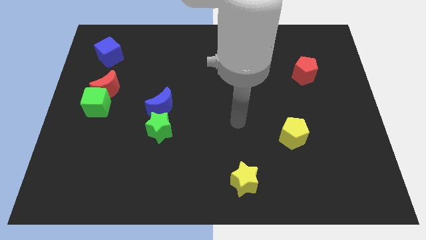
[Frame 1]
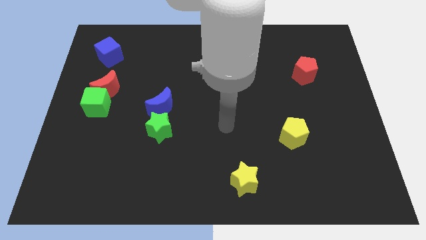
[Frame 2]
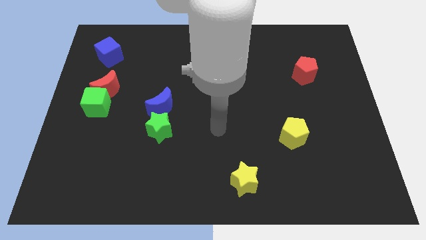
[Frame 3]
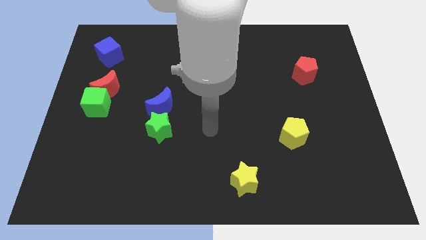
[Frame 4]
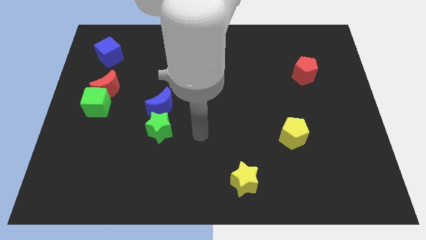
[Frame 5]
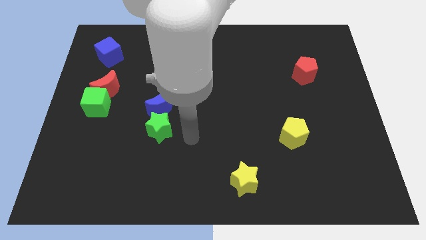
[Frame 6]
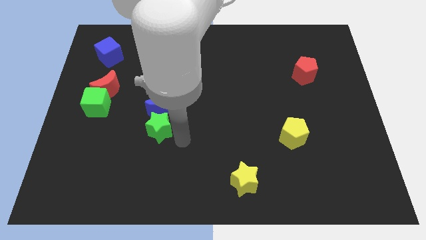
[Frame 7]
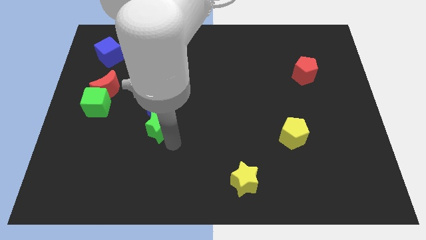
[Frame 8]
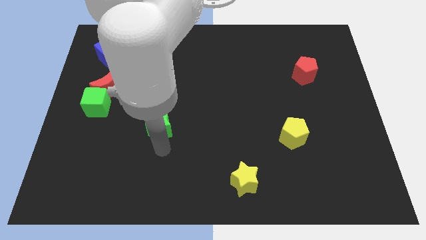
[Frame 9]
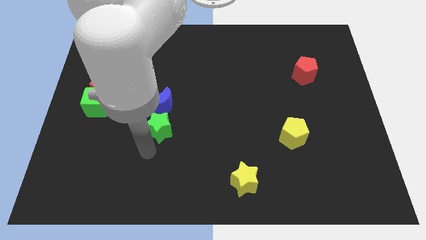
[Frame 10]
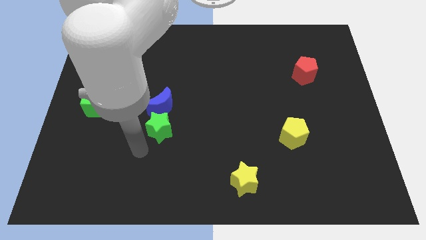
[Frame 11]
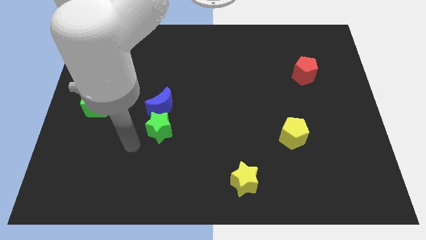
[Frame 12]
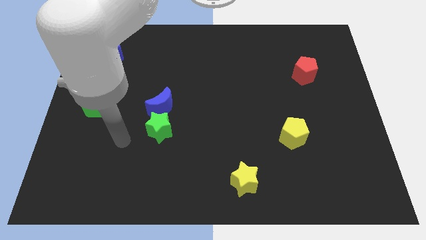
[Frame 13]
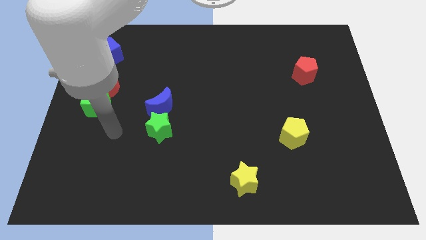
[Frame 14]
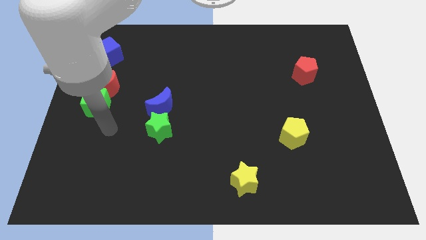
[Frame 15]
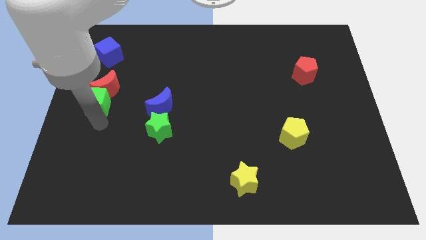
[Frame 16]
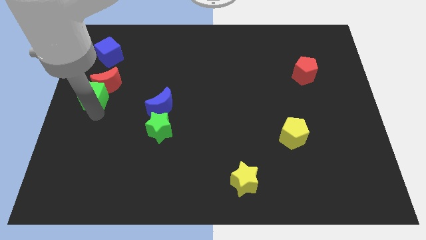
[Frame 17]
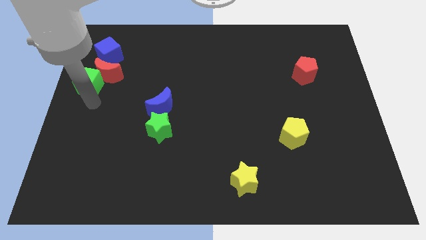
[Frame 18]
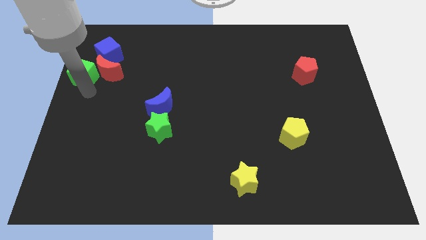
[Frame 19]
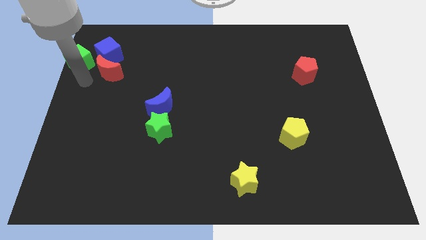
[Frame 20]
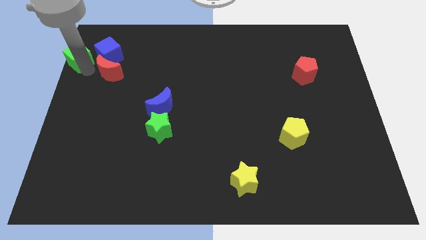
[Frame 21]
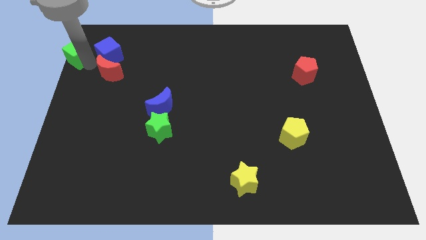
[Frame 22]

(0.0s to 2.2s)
separate the red moon from the green cube

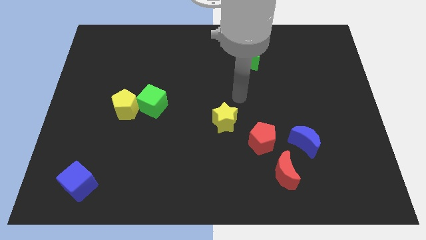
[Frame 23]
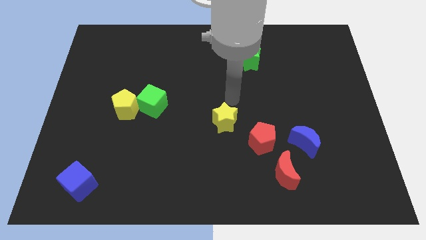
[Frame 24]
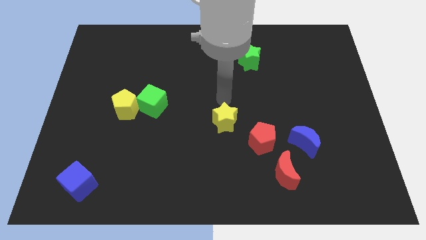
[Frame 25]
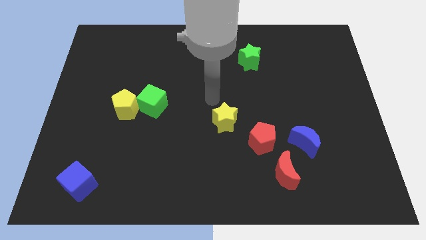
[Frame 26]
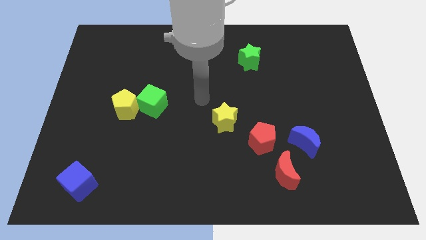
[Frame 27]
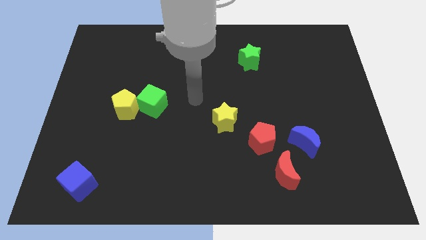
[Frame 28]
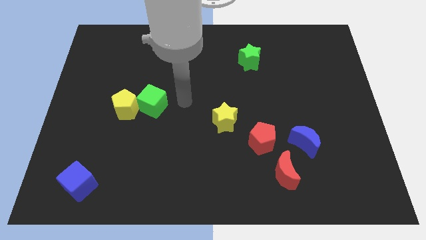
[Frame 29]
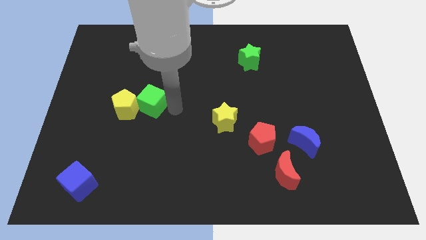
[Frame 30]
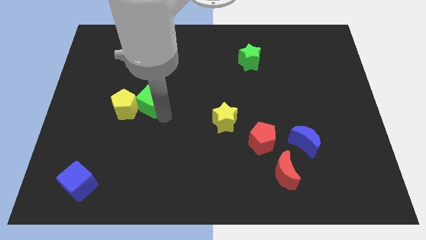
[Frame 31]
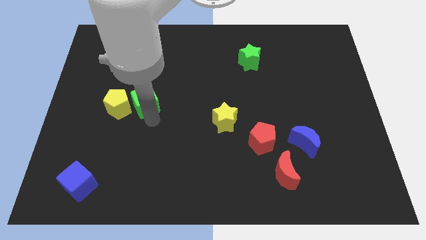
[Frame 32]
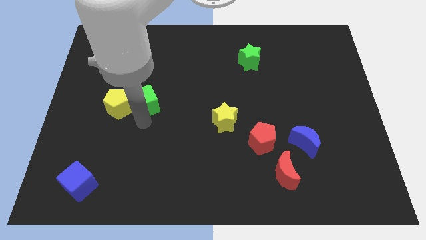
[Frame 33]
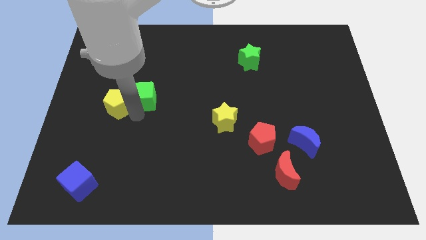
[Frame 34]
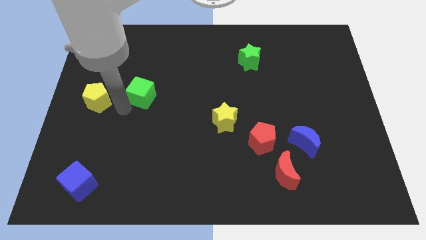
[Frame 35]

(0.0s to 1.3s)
pull the green cube apart from the yellow pentagon

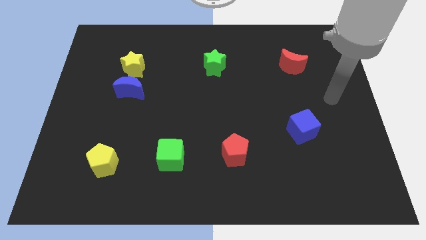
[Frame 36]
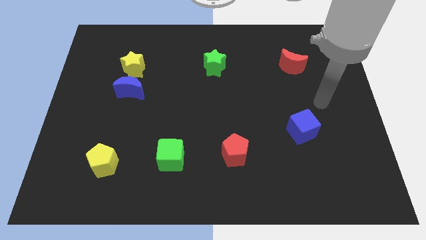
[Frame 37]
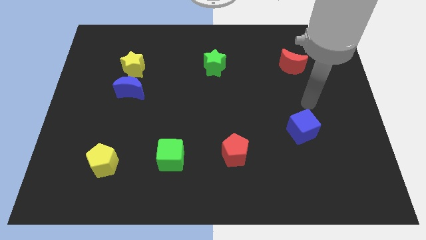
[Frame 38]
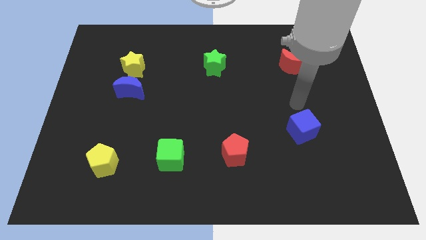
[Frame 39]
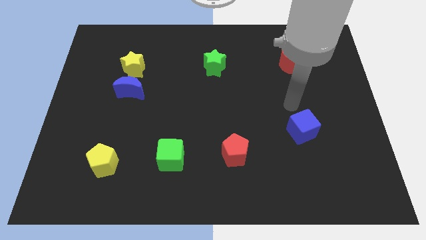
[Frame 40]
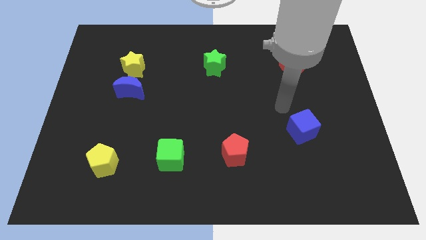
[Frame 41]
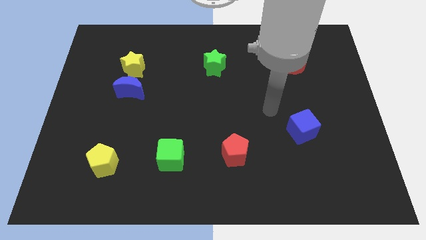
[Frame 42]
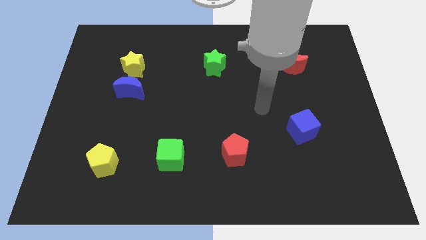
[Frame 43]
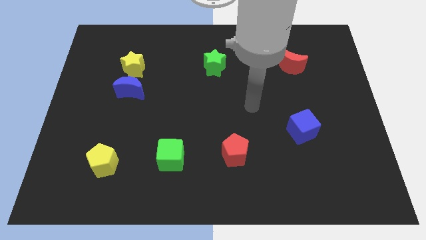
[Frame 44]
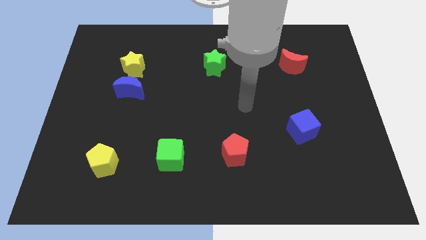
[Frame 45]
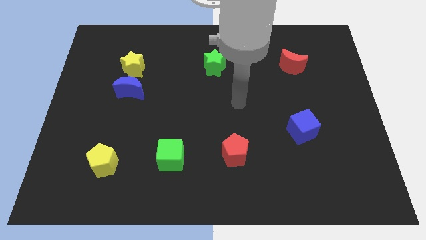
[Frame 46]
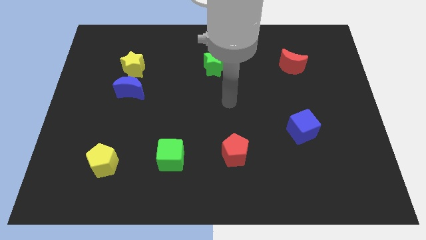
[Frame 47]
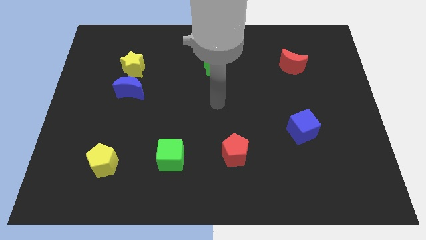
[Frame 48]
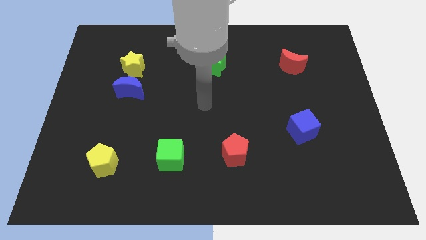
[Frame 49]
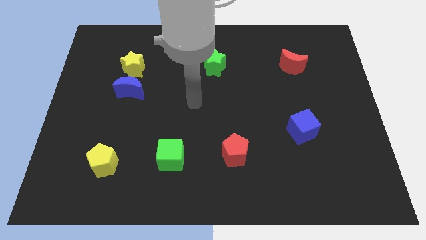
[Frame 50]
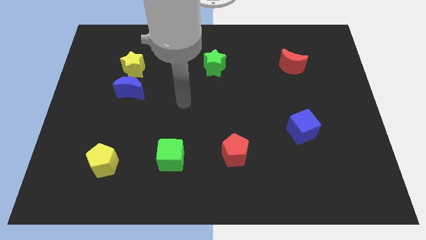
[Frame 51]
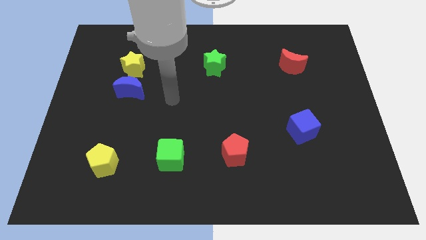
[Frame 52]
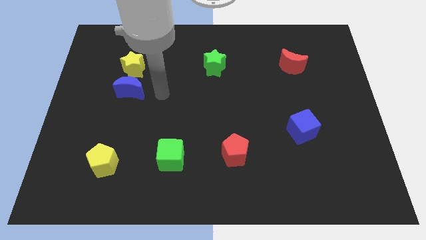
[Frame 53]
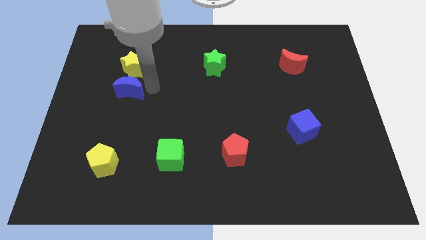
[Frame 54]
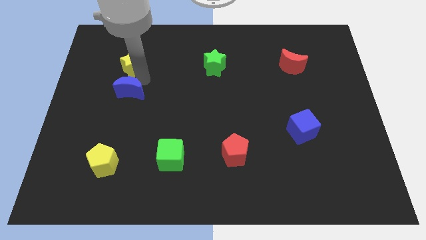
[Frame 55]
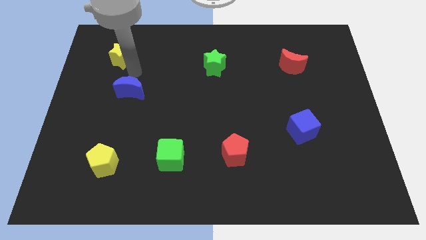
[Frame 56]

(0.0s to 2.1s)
move the blue moon away from the yellow star

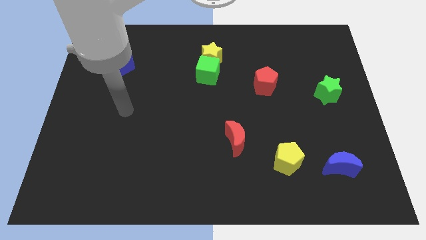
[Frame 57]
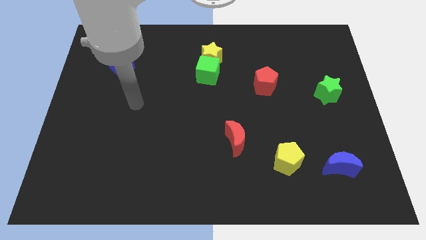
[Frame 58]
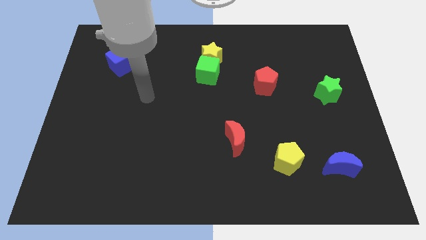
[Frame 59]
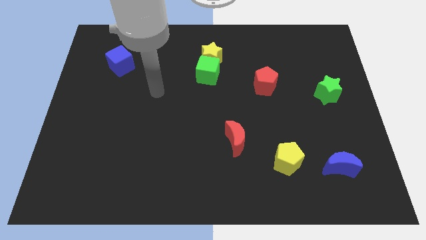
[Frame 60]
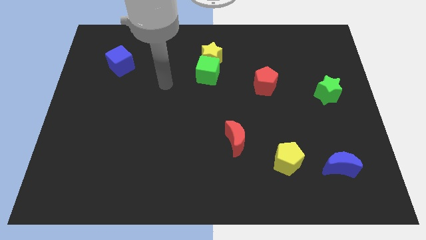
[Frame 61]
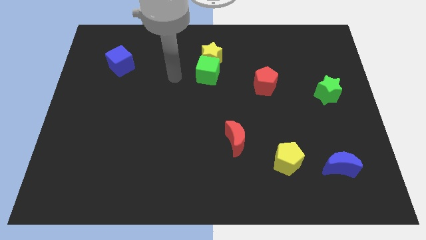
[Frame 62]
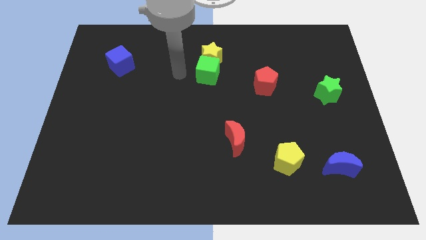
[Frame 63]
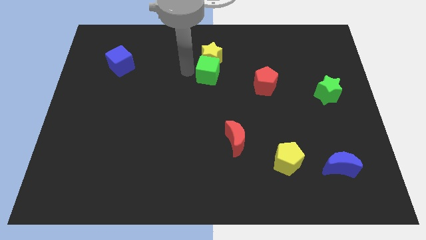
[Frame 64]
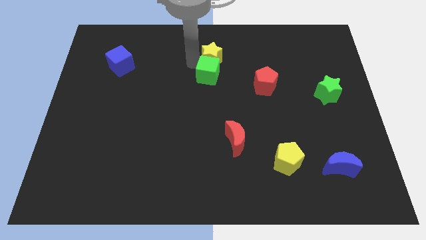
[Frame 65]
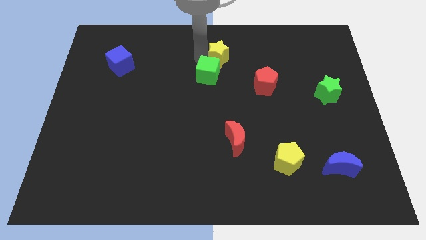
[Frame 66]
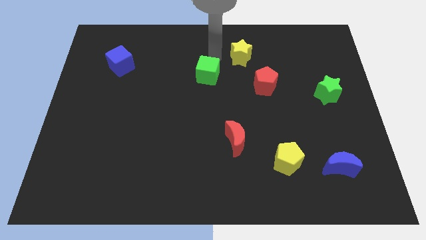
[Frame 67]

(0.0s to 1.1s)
move the green cube away from the yellow star

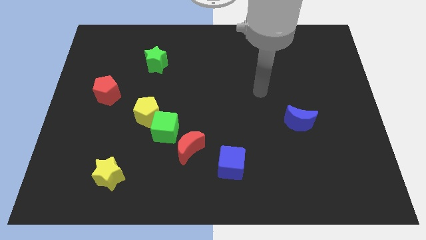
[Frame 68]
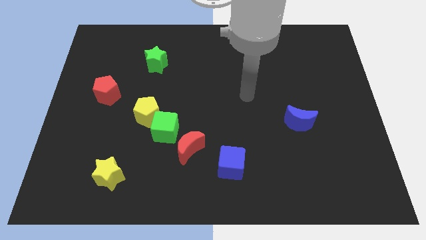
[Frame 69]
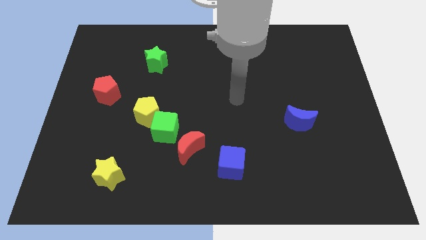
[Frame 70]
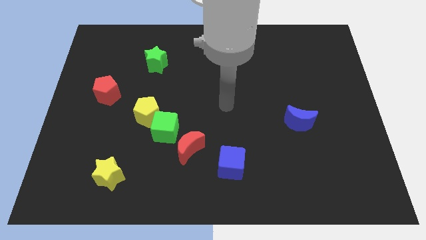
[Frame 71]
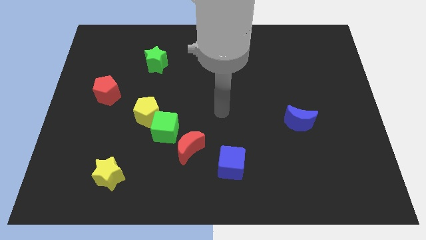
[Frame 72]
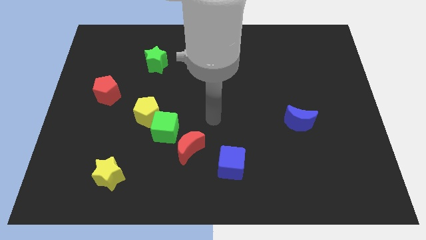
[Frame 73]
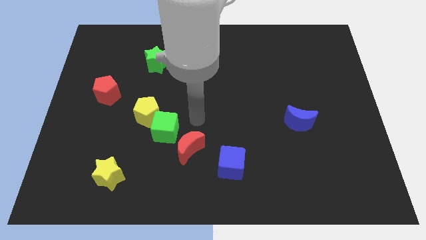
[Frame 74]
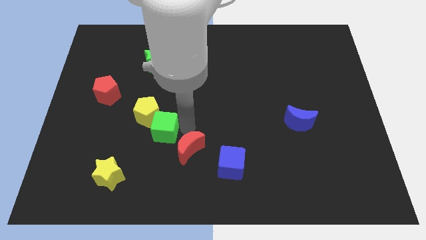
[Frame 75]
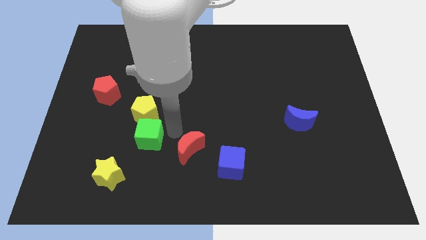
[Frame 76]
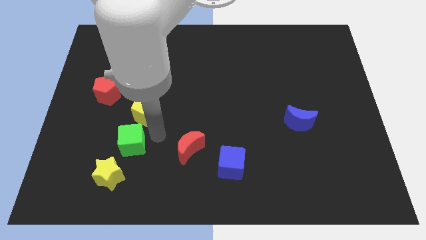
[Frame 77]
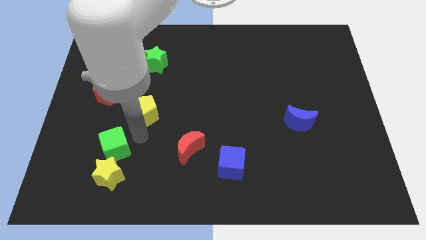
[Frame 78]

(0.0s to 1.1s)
separate the yellow pentagon from the green cube

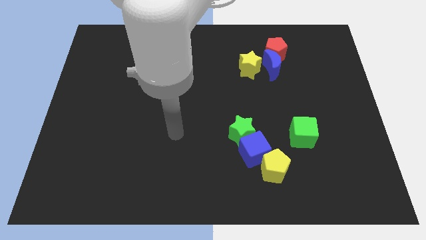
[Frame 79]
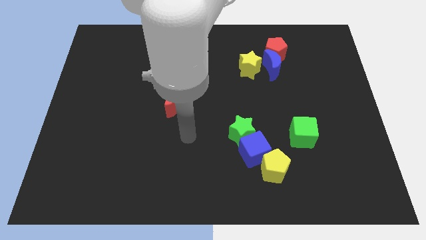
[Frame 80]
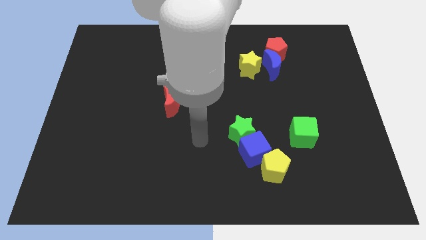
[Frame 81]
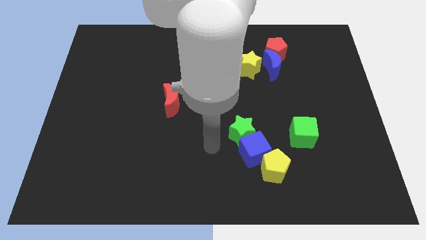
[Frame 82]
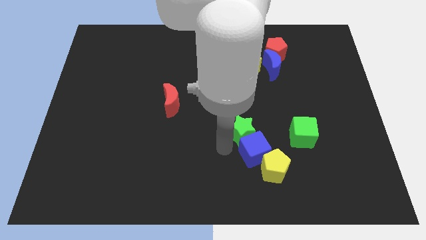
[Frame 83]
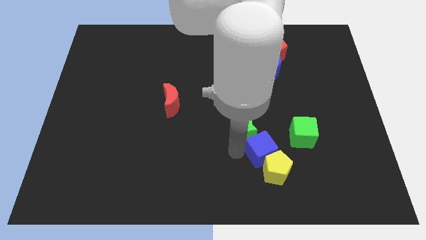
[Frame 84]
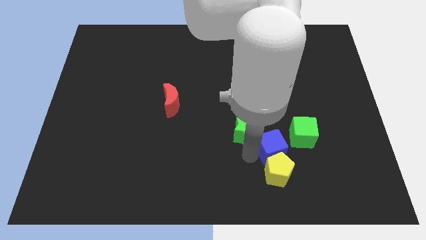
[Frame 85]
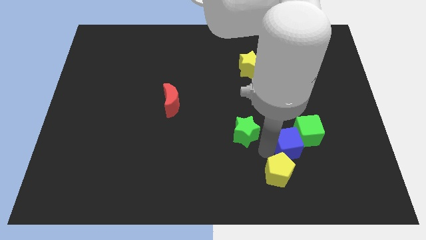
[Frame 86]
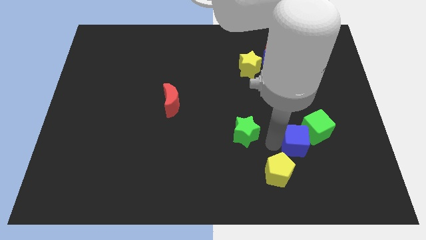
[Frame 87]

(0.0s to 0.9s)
pull the green star apart from the blue cube

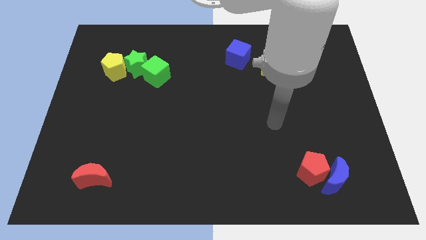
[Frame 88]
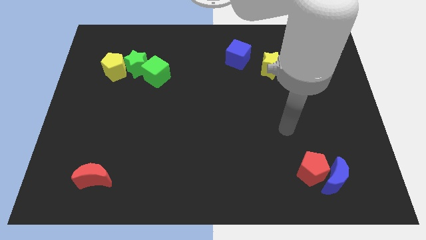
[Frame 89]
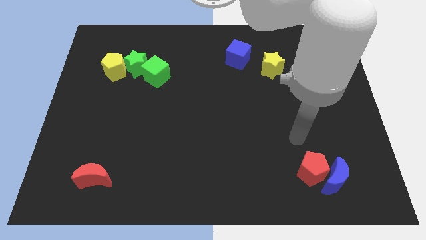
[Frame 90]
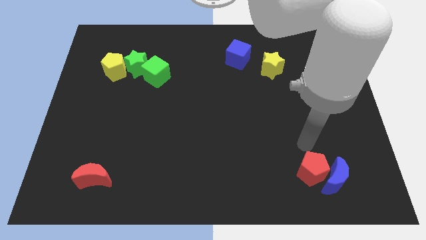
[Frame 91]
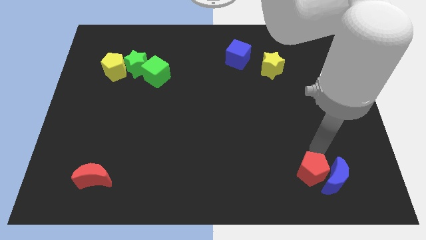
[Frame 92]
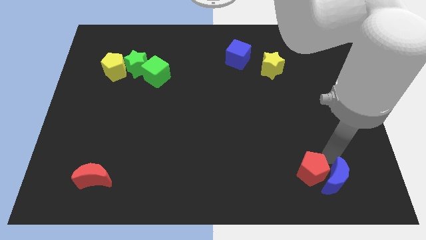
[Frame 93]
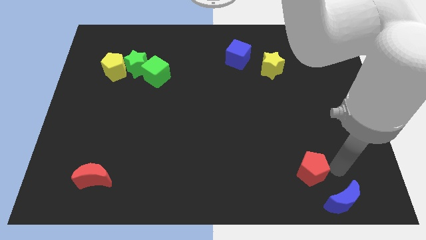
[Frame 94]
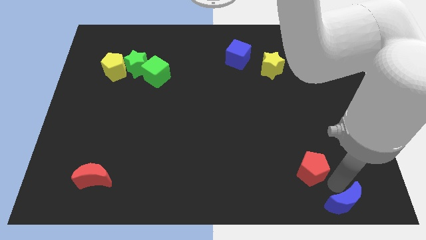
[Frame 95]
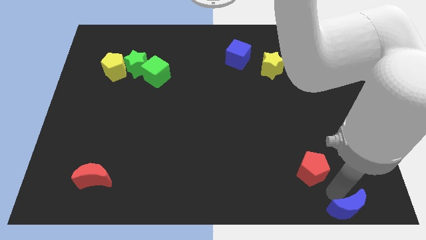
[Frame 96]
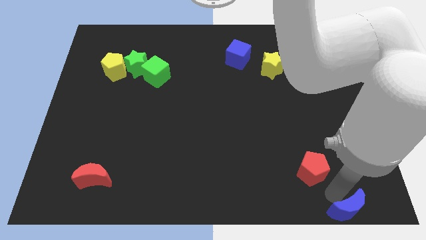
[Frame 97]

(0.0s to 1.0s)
separate the red pentagon from the blue moon
